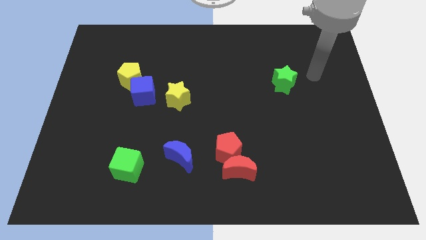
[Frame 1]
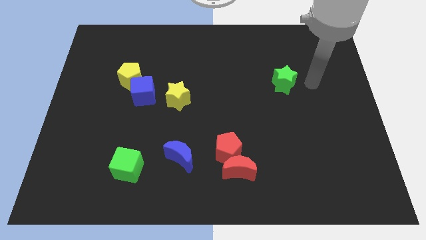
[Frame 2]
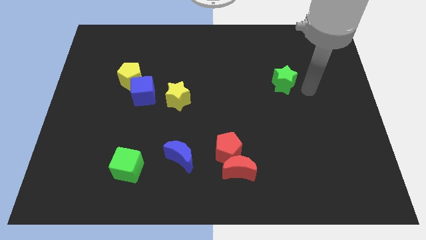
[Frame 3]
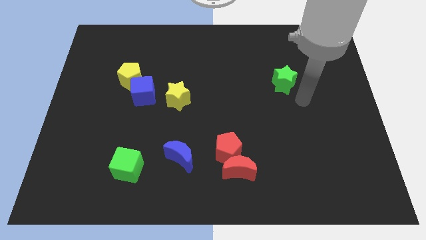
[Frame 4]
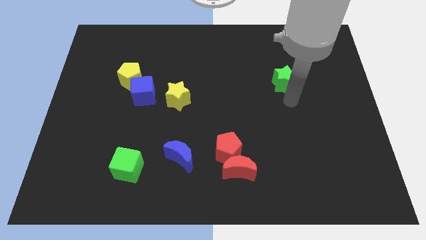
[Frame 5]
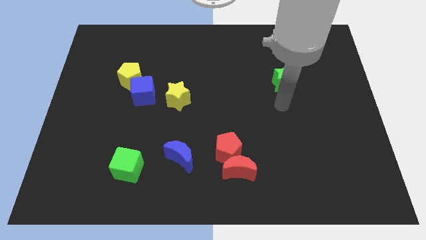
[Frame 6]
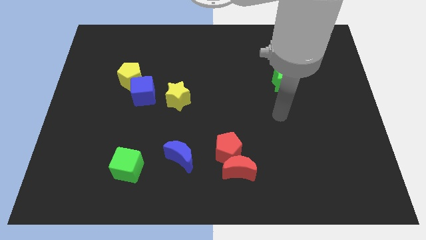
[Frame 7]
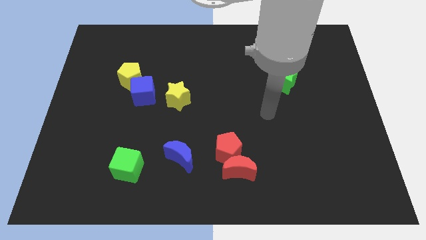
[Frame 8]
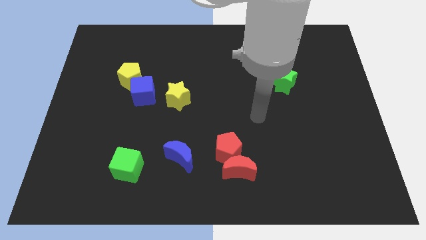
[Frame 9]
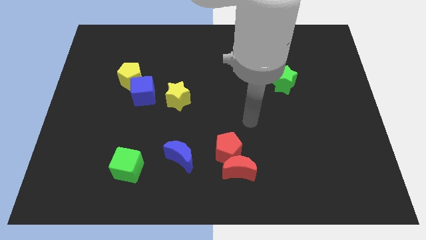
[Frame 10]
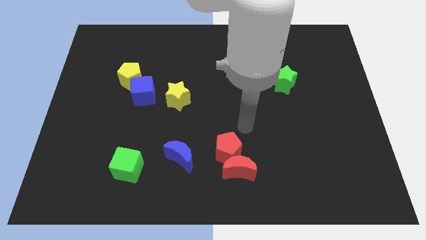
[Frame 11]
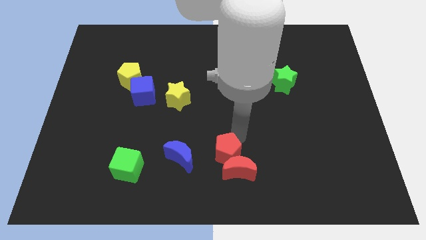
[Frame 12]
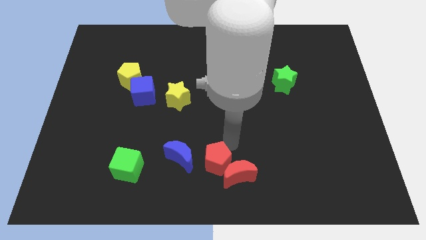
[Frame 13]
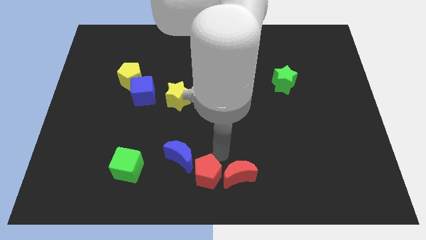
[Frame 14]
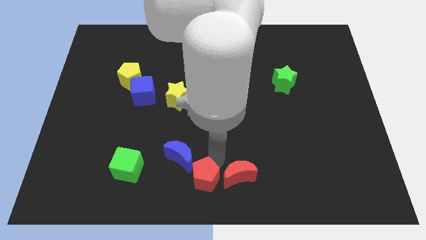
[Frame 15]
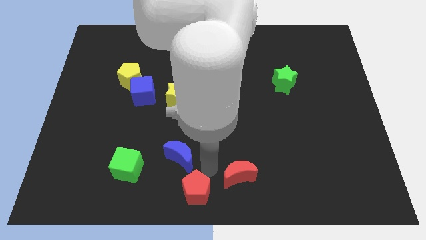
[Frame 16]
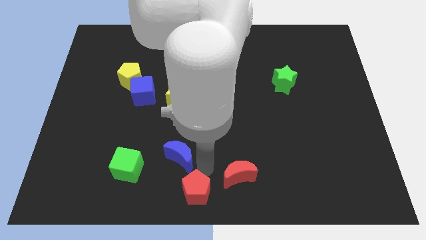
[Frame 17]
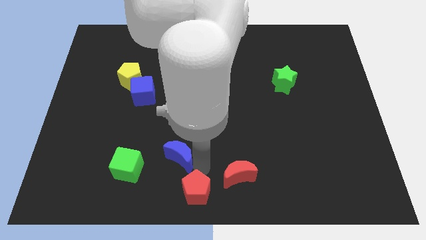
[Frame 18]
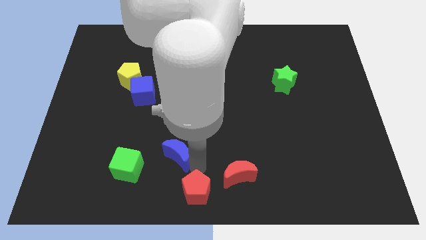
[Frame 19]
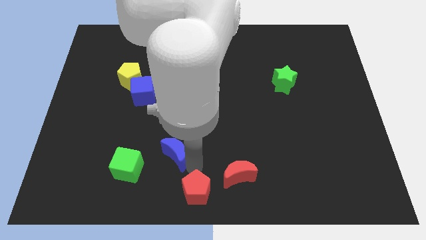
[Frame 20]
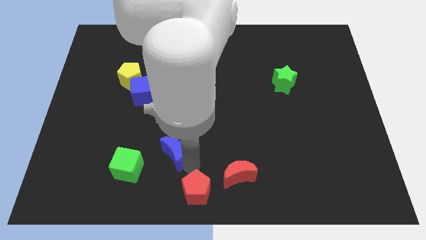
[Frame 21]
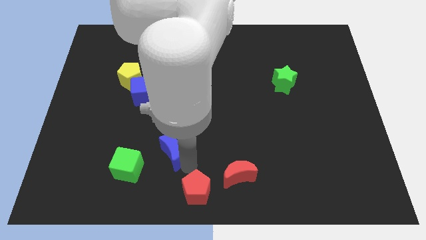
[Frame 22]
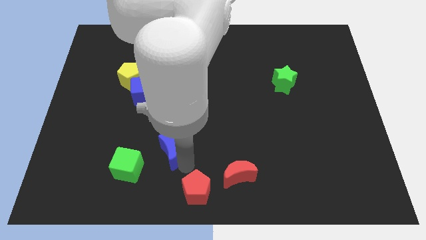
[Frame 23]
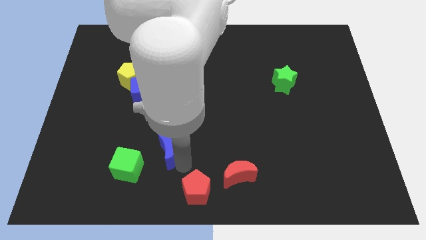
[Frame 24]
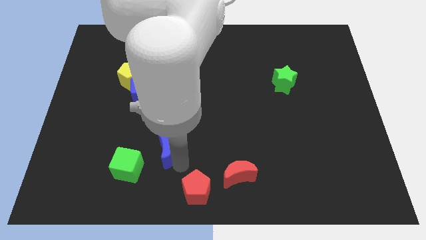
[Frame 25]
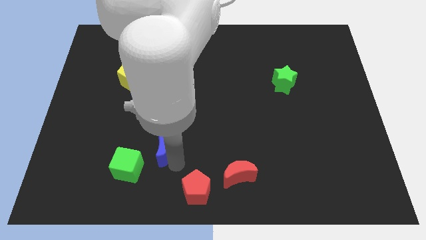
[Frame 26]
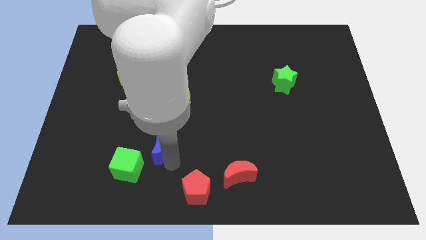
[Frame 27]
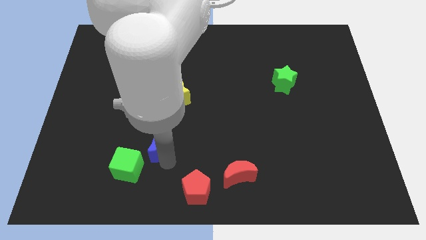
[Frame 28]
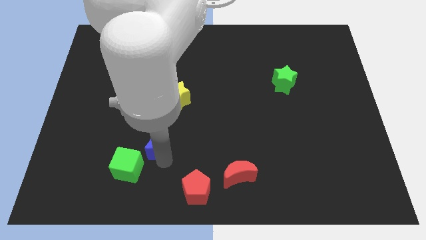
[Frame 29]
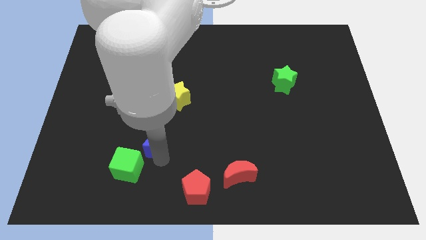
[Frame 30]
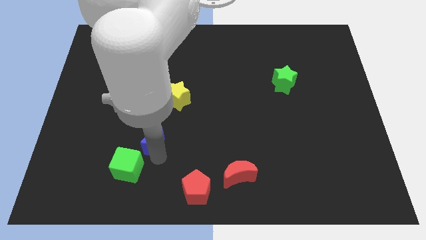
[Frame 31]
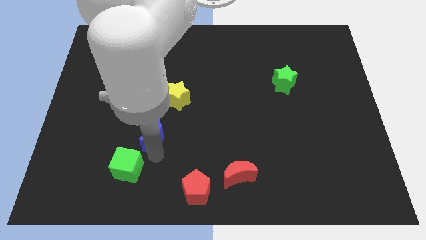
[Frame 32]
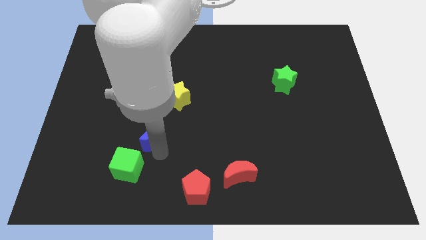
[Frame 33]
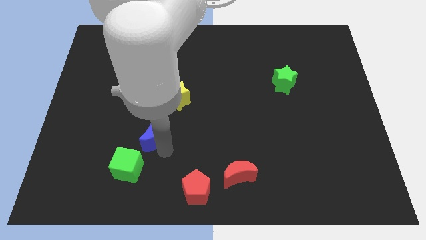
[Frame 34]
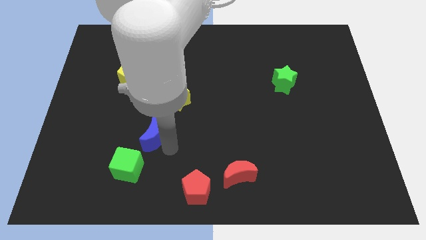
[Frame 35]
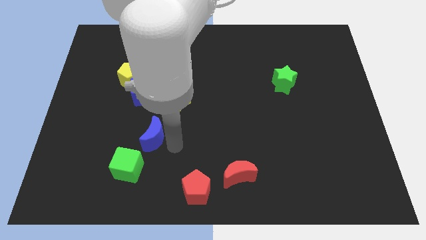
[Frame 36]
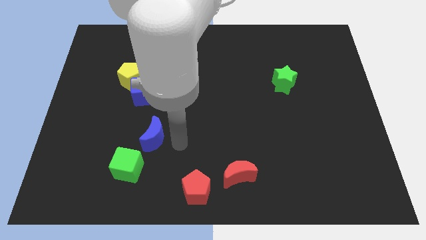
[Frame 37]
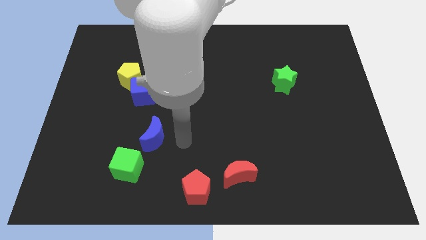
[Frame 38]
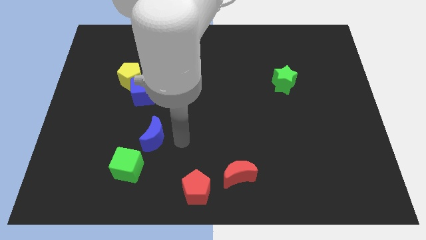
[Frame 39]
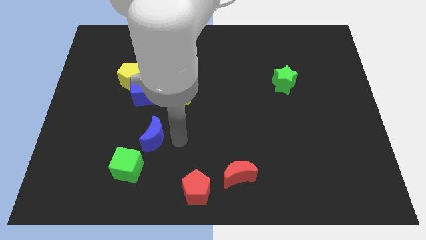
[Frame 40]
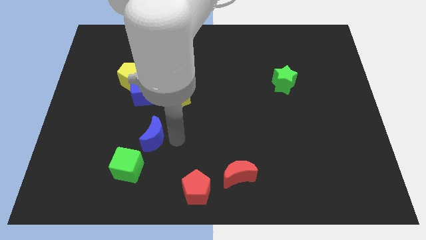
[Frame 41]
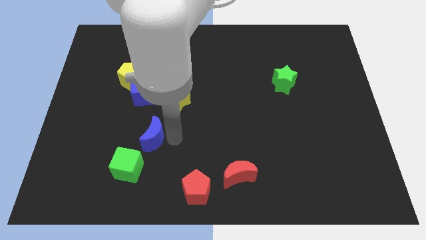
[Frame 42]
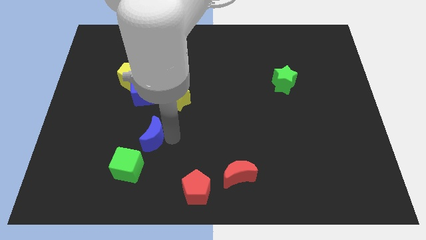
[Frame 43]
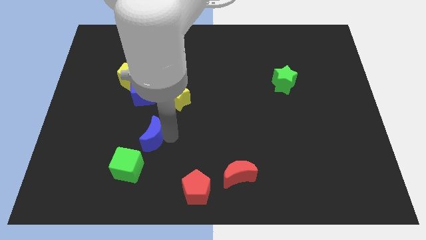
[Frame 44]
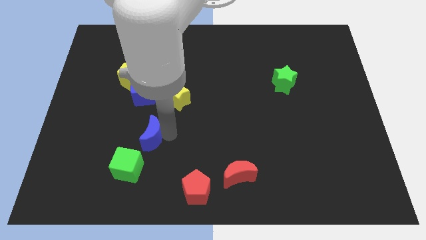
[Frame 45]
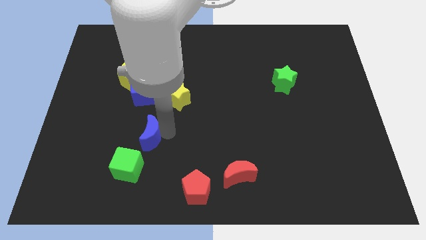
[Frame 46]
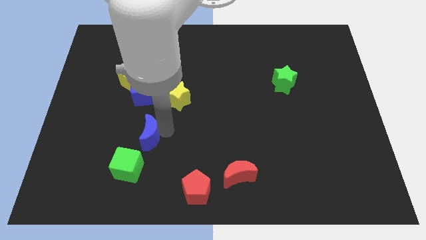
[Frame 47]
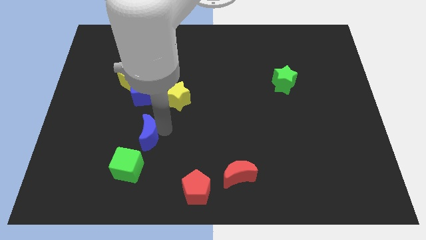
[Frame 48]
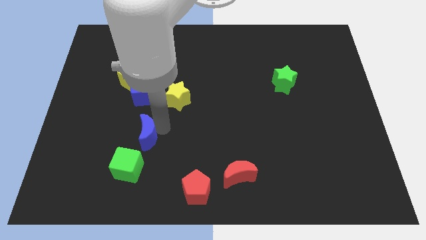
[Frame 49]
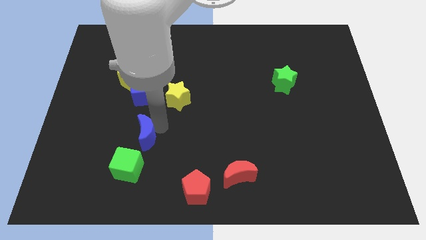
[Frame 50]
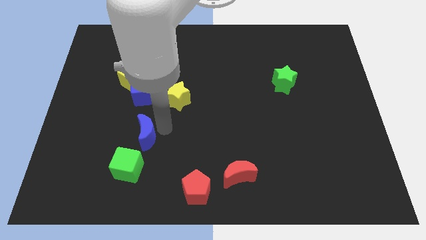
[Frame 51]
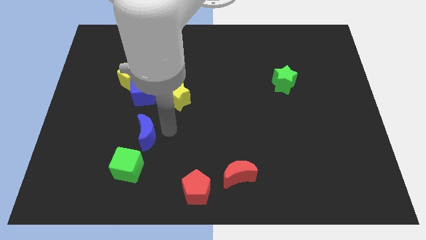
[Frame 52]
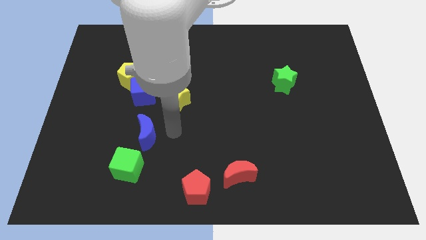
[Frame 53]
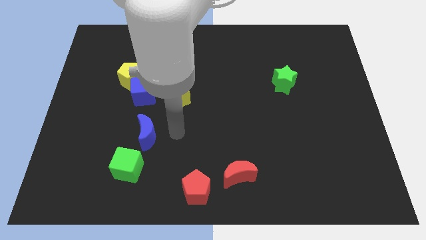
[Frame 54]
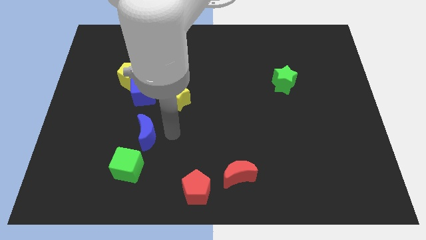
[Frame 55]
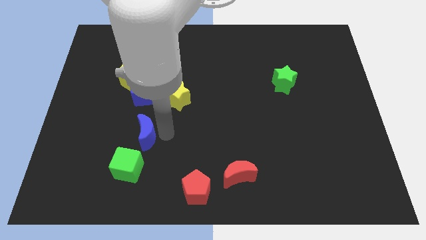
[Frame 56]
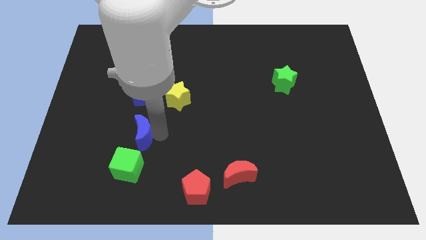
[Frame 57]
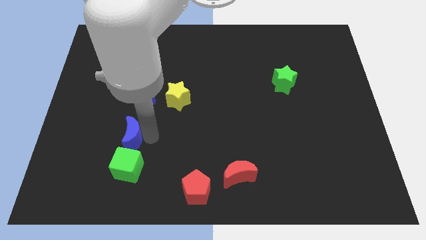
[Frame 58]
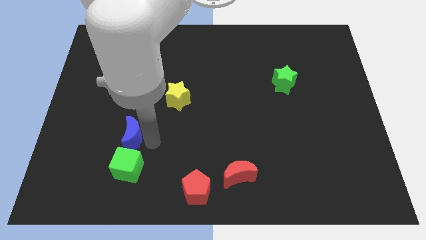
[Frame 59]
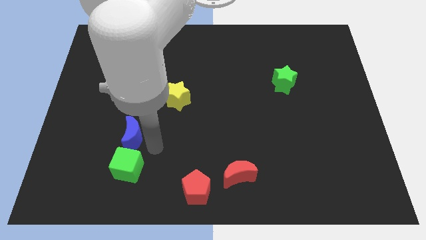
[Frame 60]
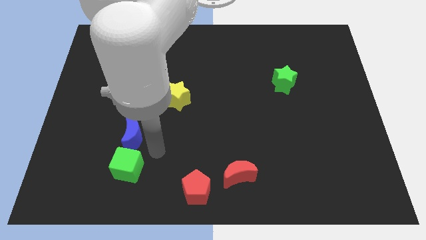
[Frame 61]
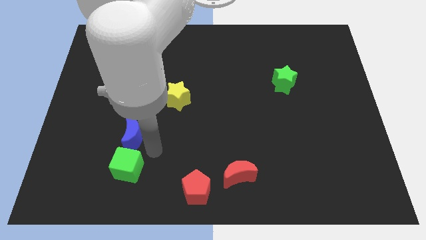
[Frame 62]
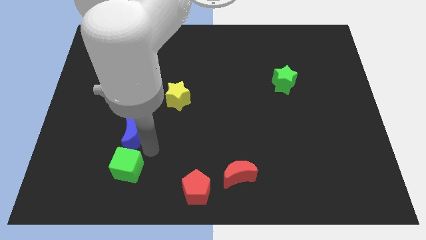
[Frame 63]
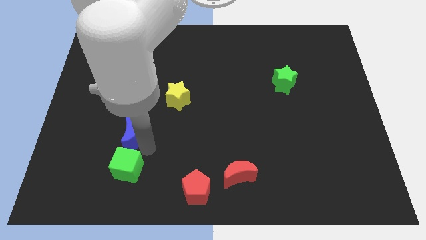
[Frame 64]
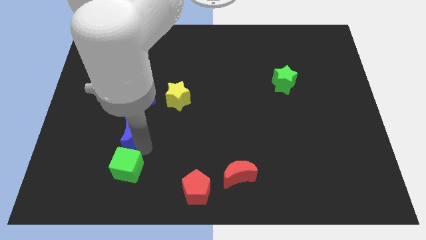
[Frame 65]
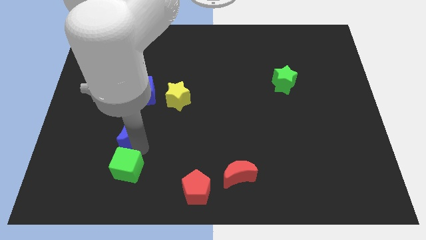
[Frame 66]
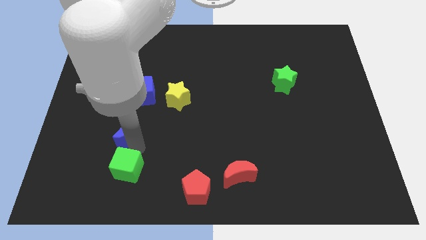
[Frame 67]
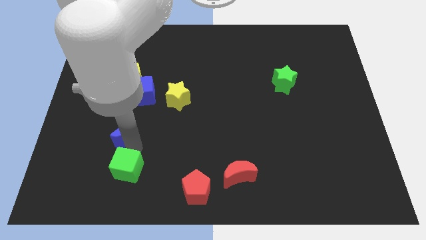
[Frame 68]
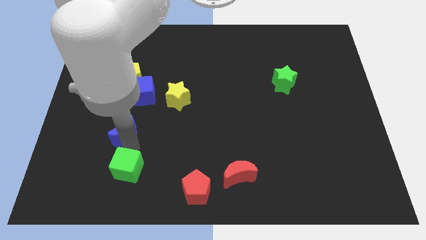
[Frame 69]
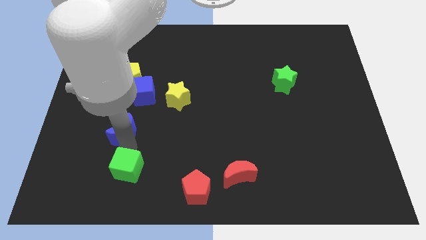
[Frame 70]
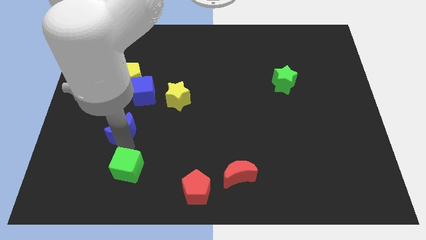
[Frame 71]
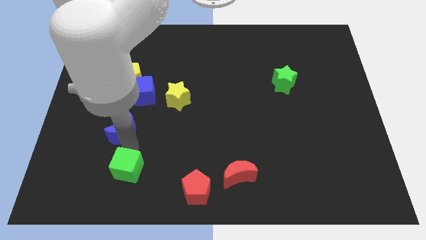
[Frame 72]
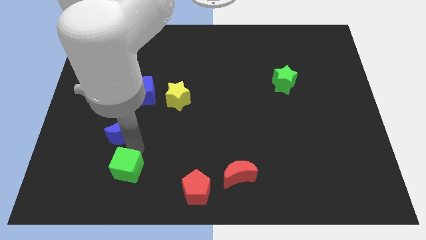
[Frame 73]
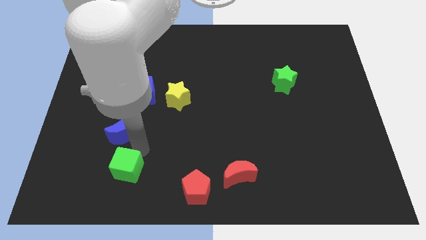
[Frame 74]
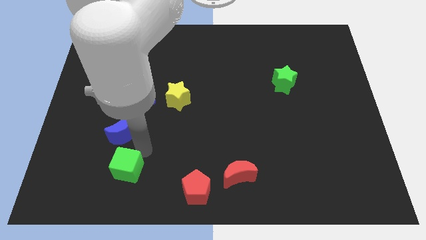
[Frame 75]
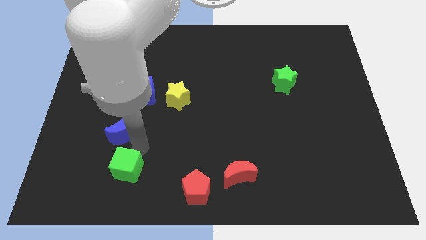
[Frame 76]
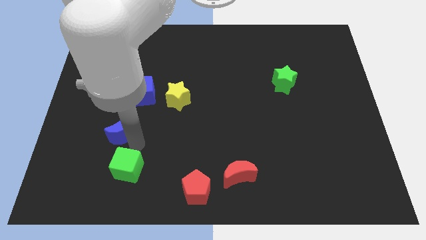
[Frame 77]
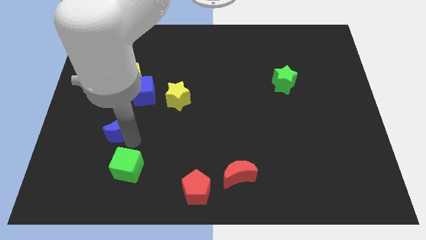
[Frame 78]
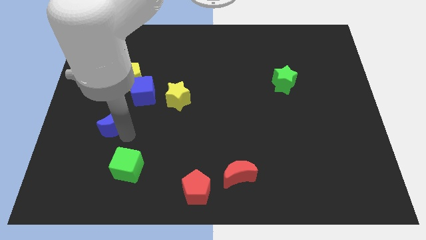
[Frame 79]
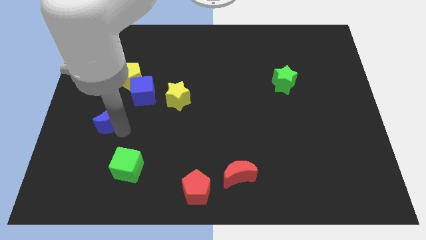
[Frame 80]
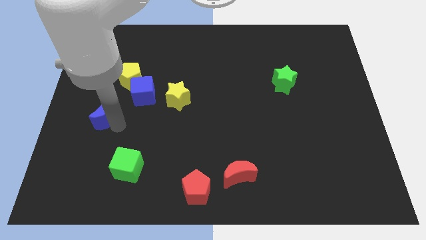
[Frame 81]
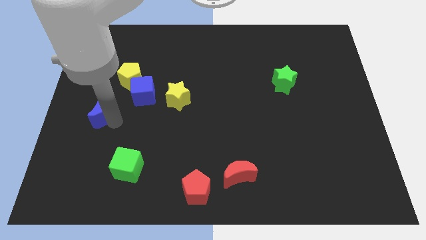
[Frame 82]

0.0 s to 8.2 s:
slide the blue moon to the left side
